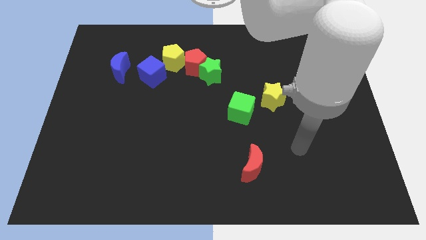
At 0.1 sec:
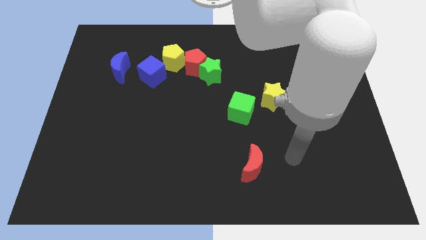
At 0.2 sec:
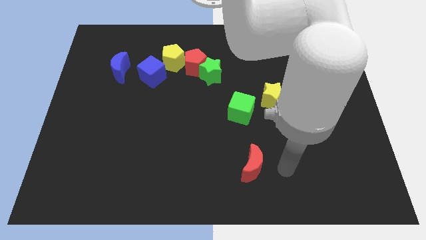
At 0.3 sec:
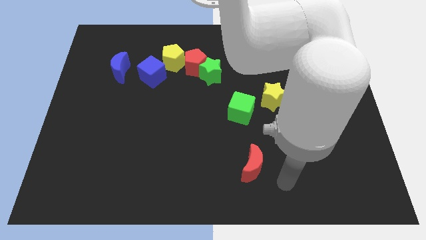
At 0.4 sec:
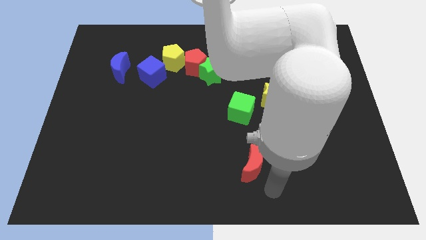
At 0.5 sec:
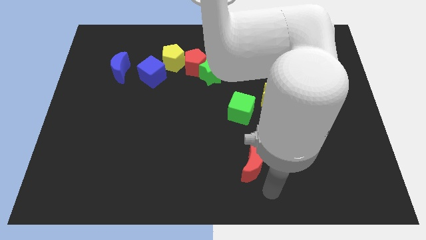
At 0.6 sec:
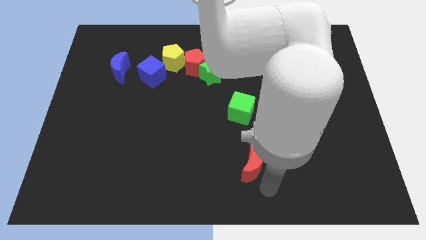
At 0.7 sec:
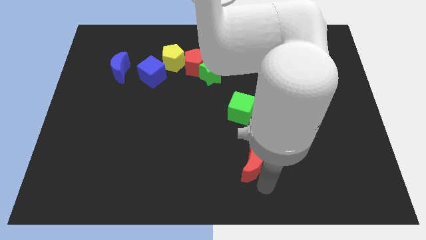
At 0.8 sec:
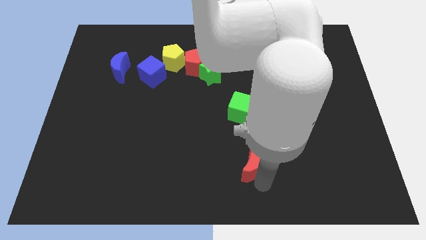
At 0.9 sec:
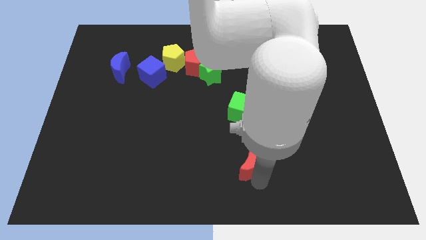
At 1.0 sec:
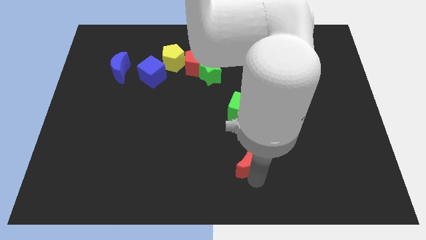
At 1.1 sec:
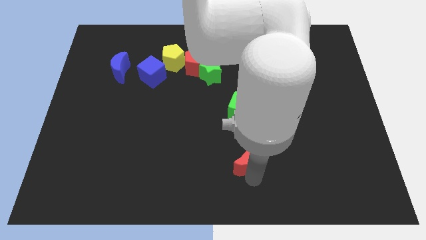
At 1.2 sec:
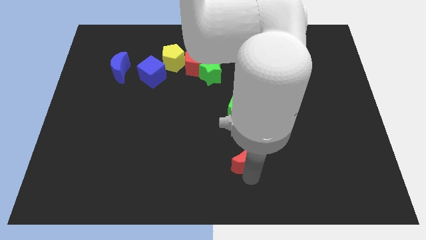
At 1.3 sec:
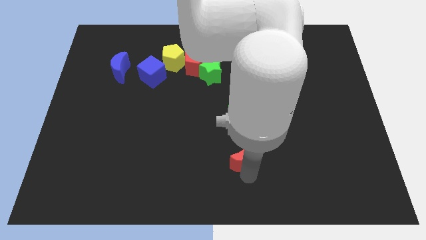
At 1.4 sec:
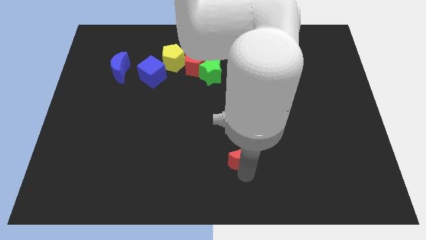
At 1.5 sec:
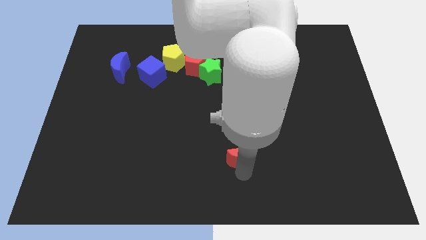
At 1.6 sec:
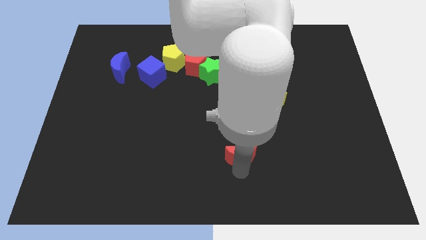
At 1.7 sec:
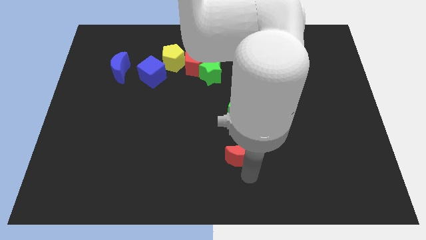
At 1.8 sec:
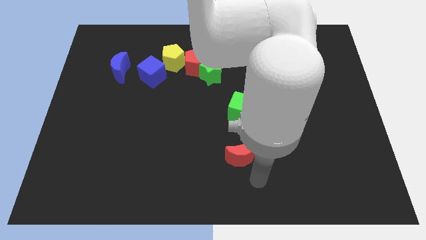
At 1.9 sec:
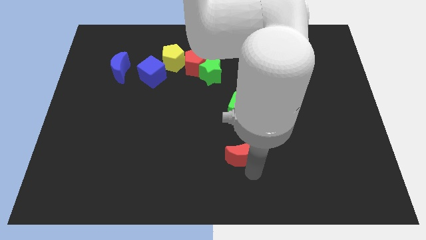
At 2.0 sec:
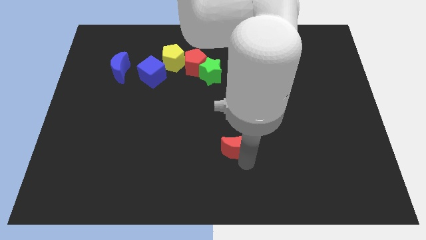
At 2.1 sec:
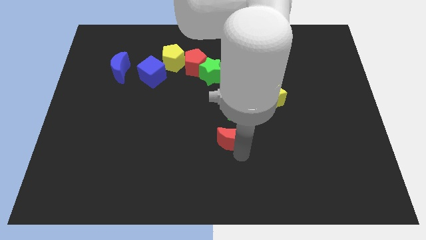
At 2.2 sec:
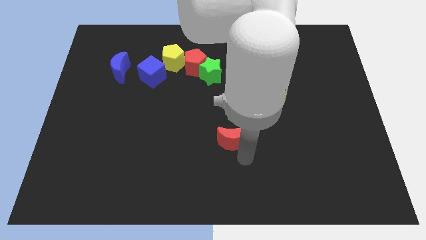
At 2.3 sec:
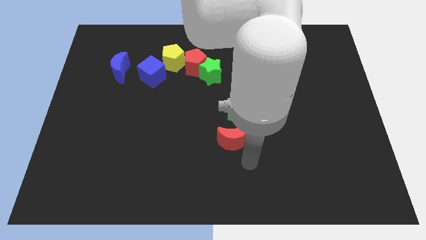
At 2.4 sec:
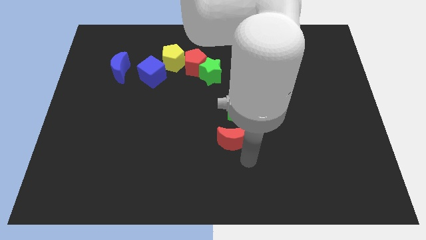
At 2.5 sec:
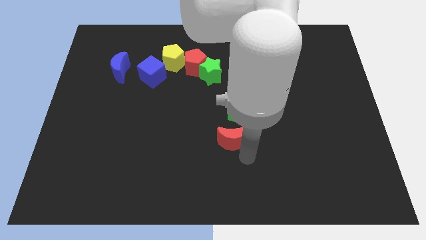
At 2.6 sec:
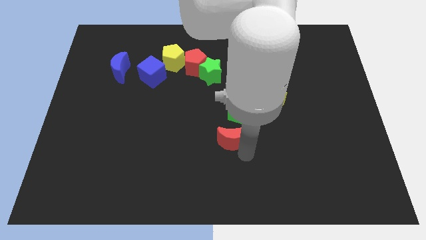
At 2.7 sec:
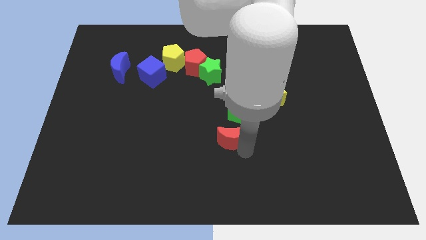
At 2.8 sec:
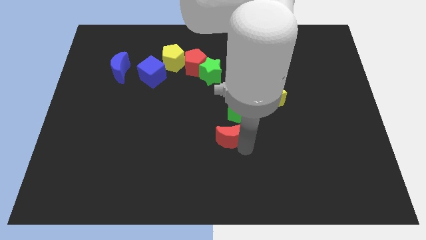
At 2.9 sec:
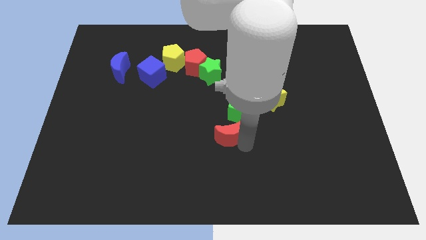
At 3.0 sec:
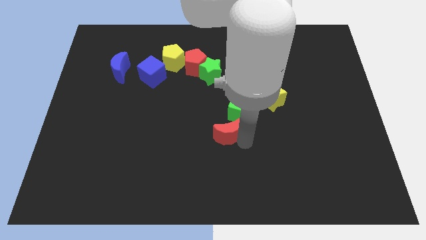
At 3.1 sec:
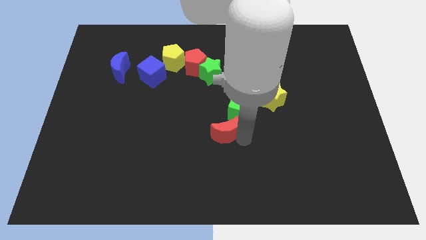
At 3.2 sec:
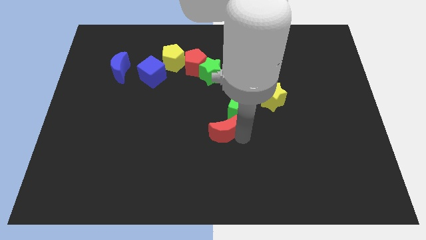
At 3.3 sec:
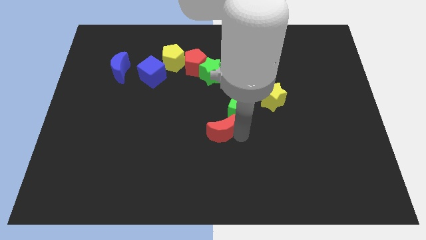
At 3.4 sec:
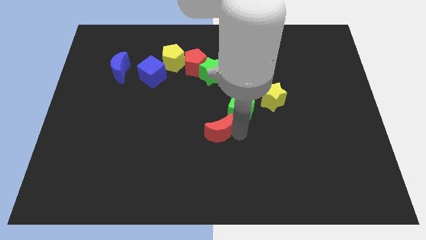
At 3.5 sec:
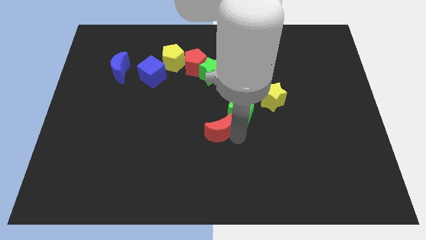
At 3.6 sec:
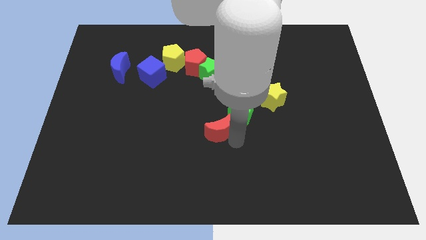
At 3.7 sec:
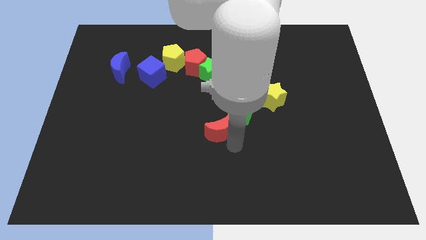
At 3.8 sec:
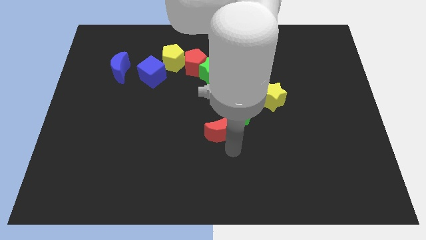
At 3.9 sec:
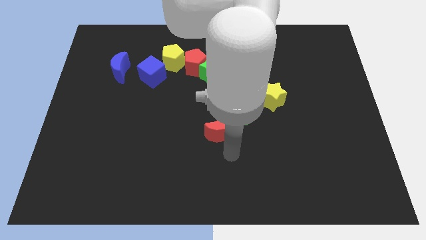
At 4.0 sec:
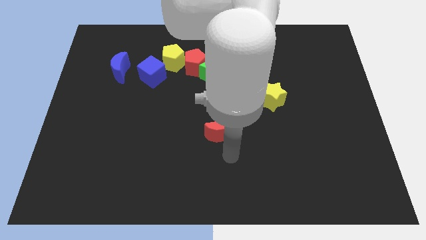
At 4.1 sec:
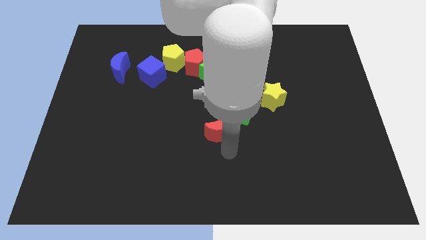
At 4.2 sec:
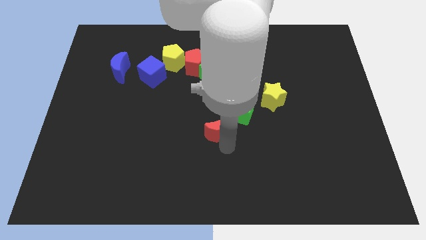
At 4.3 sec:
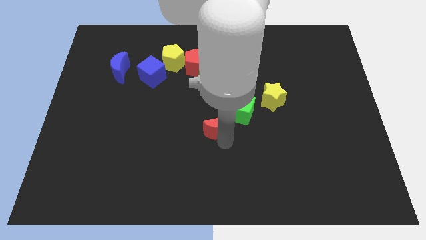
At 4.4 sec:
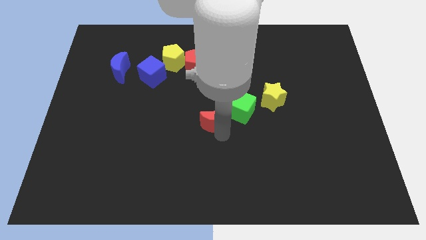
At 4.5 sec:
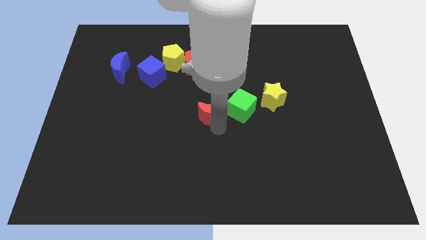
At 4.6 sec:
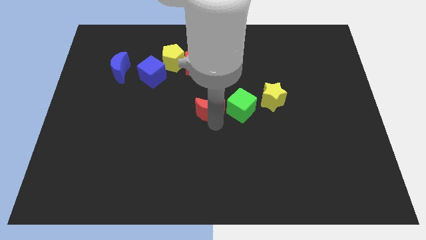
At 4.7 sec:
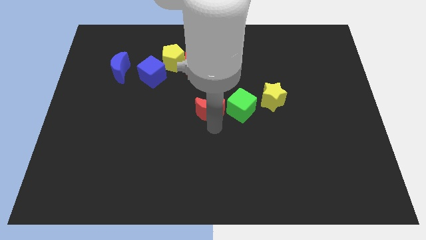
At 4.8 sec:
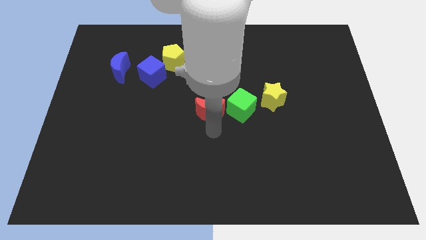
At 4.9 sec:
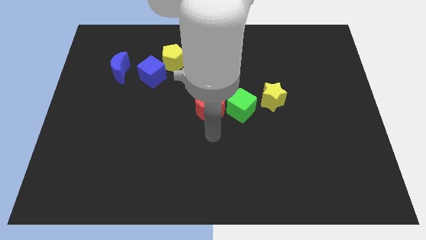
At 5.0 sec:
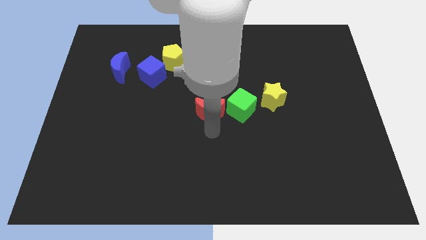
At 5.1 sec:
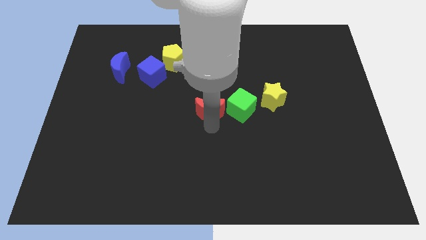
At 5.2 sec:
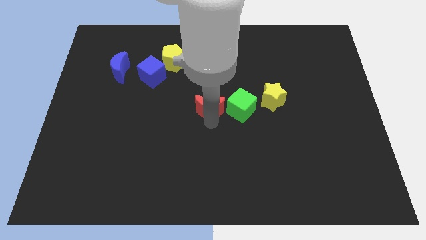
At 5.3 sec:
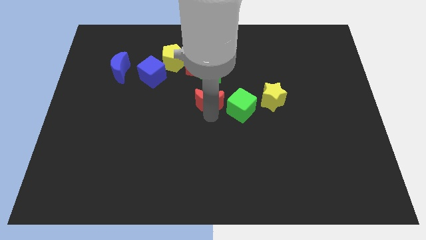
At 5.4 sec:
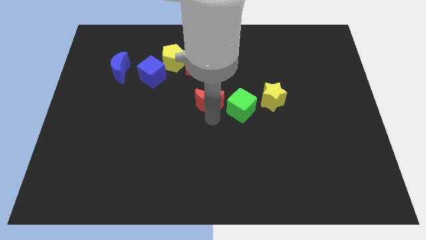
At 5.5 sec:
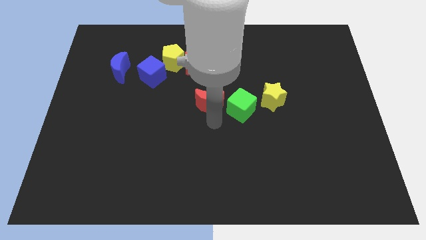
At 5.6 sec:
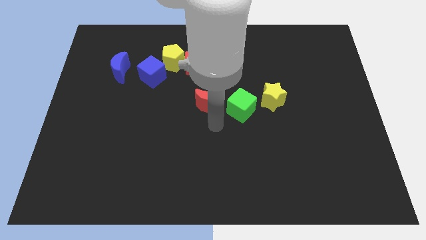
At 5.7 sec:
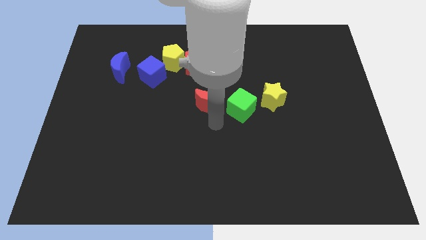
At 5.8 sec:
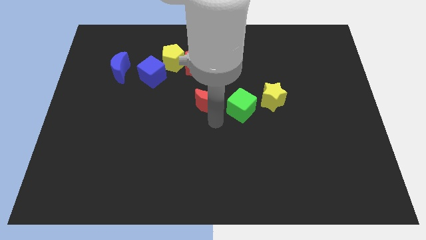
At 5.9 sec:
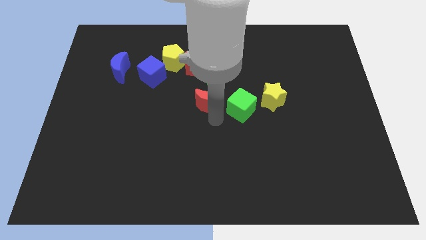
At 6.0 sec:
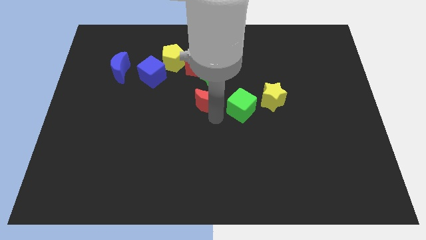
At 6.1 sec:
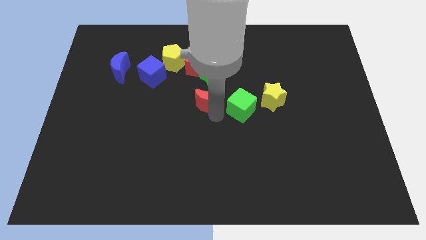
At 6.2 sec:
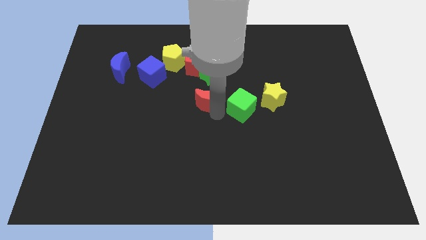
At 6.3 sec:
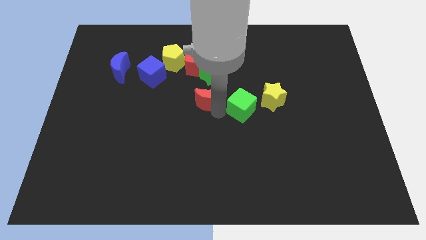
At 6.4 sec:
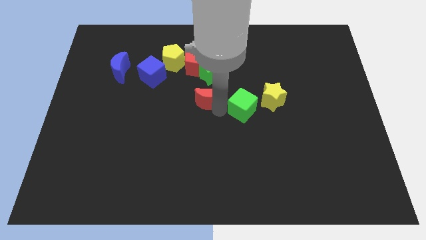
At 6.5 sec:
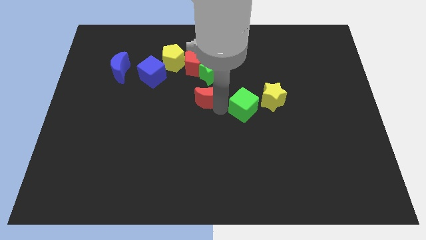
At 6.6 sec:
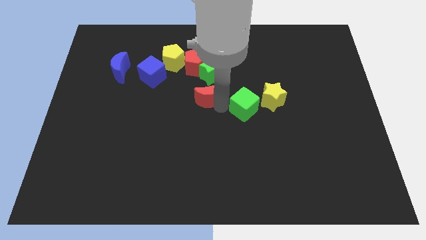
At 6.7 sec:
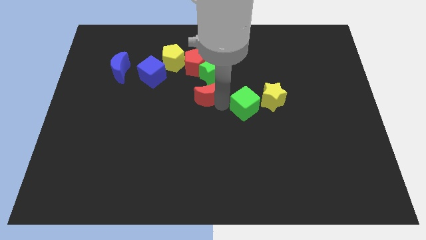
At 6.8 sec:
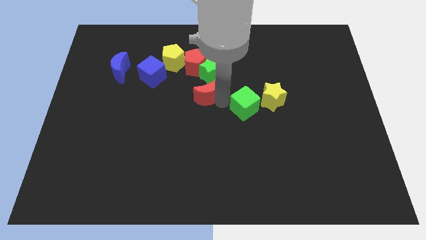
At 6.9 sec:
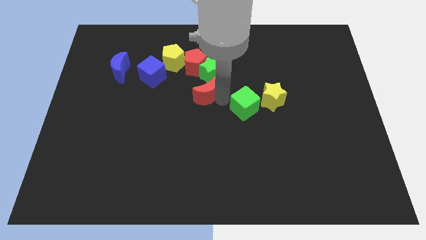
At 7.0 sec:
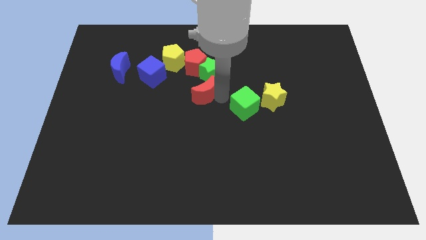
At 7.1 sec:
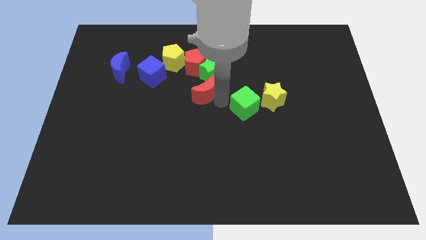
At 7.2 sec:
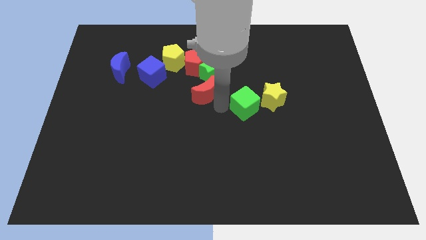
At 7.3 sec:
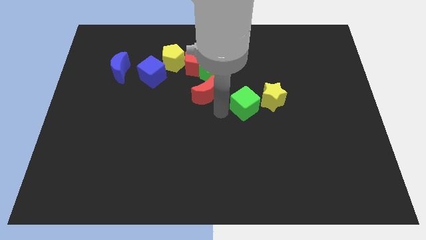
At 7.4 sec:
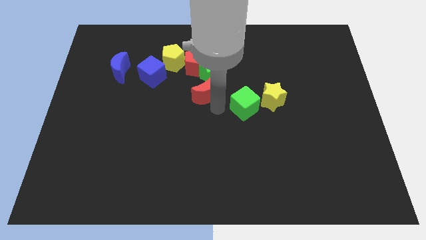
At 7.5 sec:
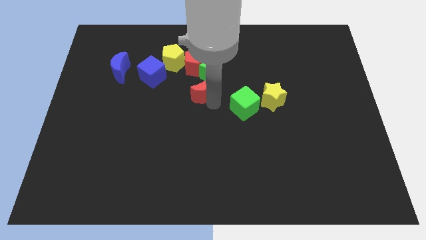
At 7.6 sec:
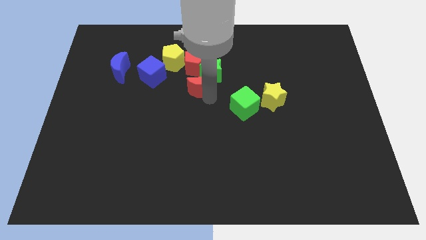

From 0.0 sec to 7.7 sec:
put the red moon to the bottom right of the yellow pentagon
